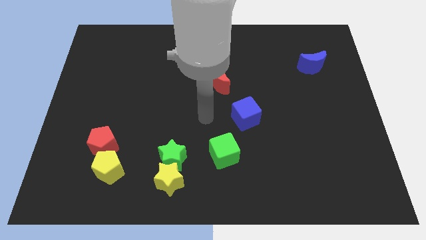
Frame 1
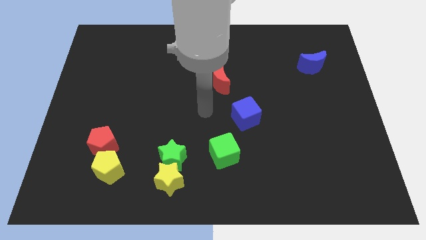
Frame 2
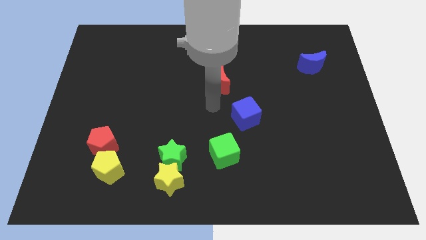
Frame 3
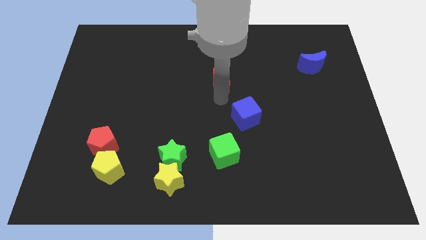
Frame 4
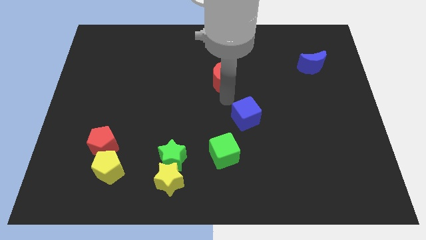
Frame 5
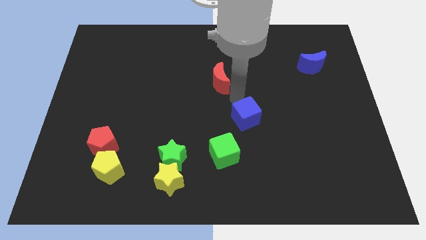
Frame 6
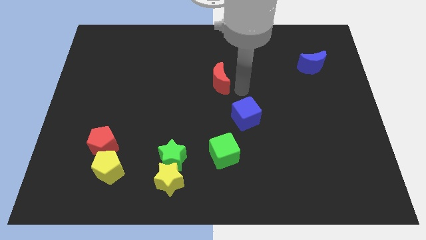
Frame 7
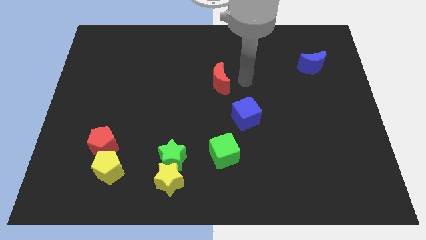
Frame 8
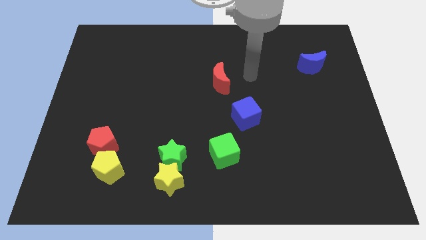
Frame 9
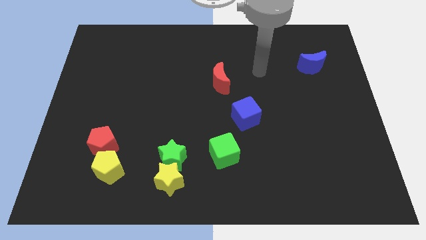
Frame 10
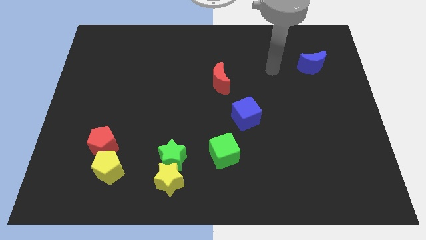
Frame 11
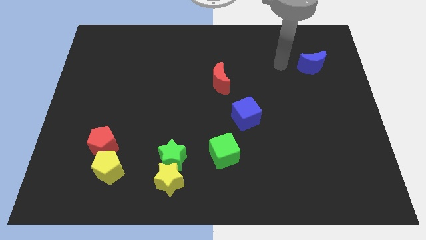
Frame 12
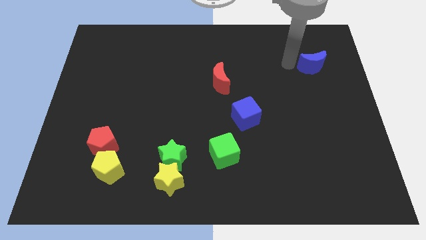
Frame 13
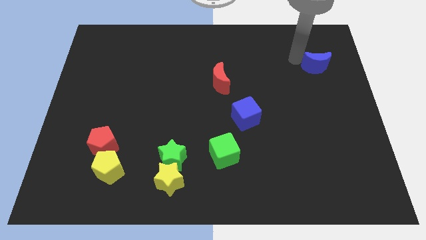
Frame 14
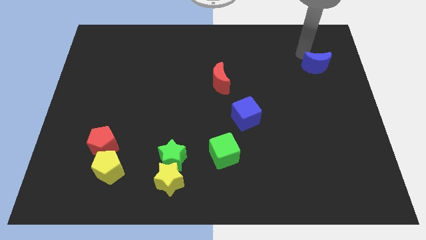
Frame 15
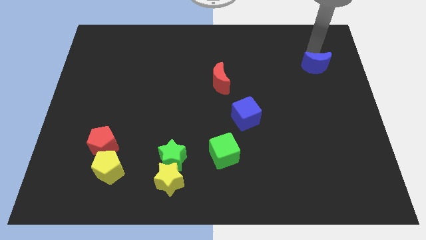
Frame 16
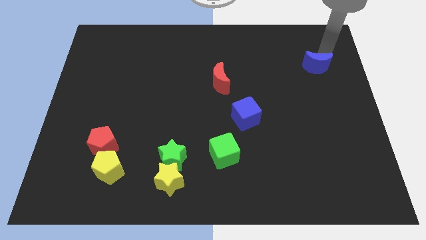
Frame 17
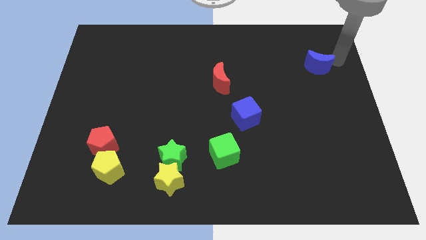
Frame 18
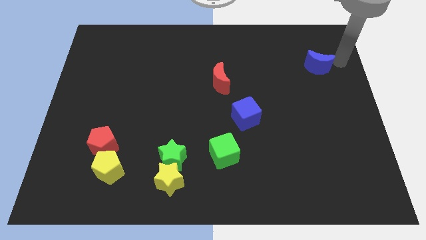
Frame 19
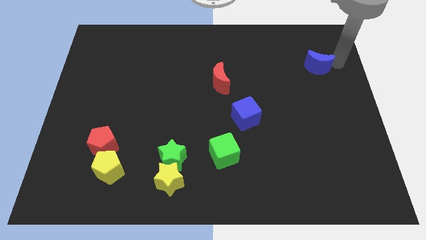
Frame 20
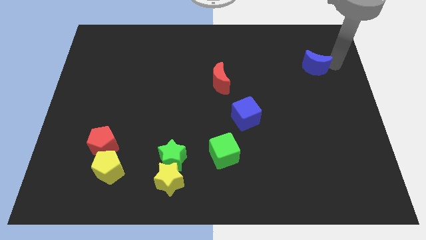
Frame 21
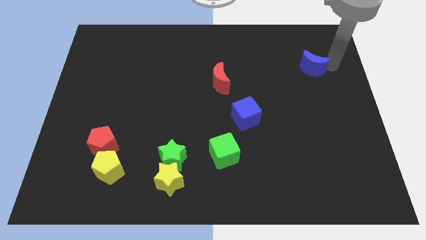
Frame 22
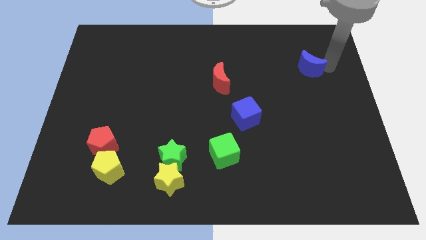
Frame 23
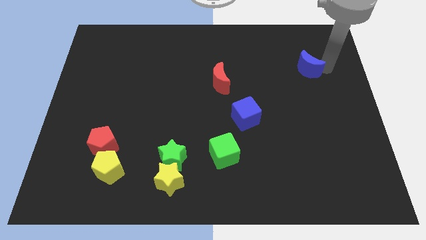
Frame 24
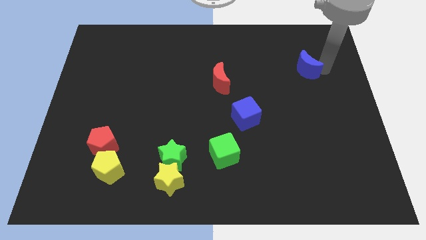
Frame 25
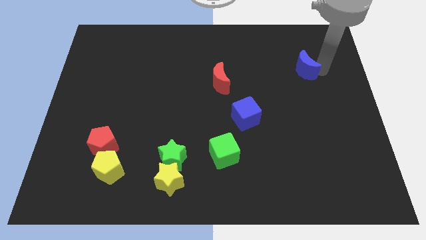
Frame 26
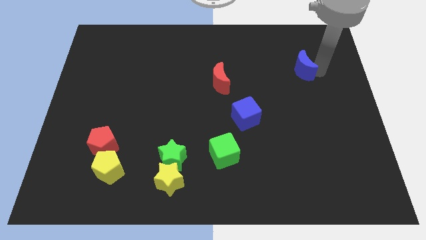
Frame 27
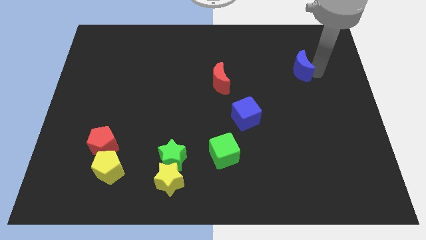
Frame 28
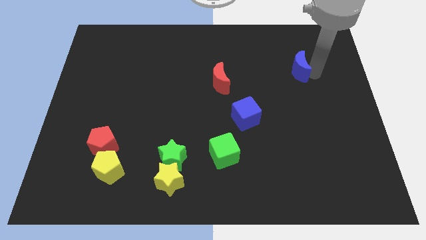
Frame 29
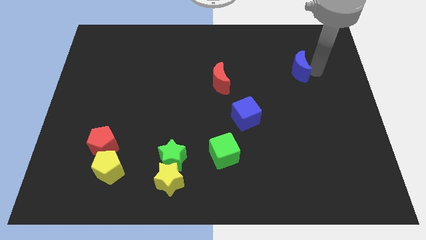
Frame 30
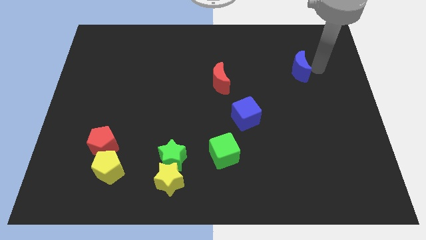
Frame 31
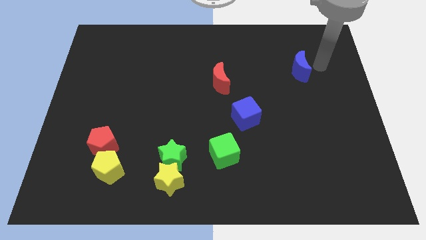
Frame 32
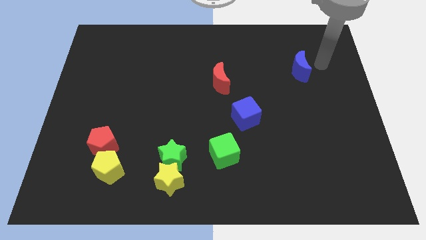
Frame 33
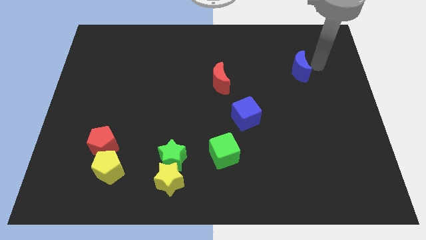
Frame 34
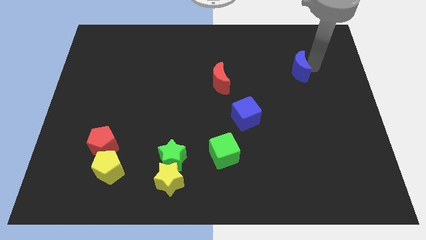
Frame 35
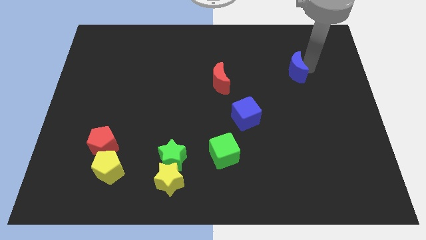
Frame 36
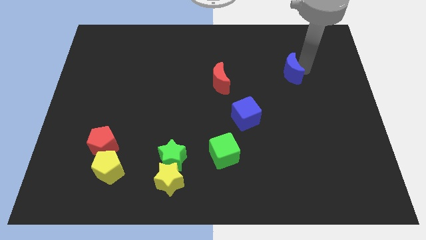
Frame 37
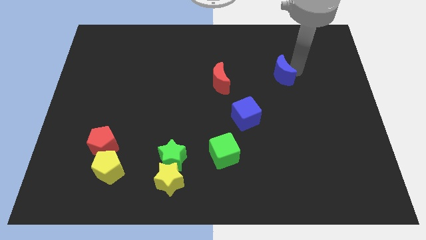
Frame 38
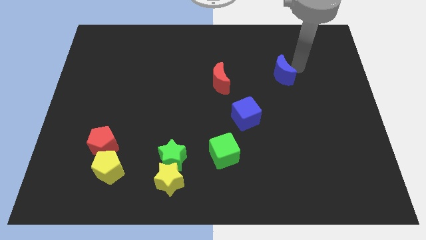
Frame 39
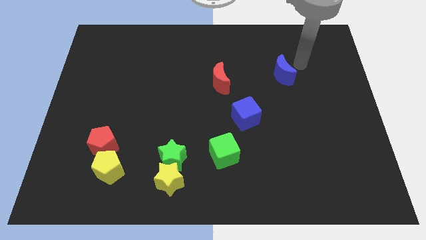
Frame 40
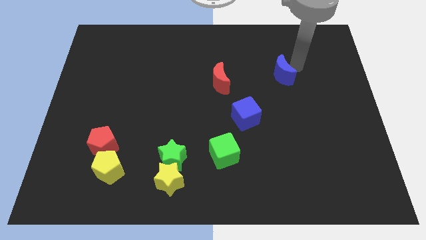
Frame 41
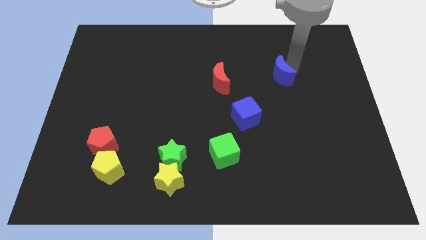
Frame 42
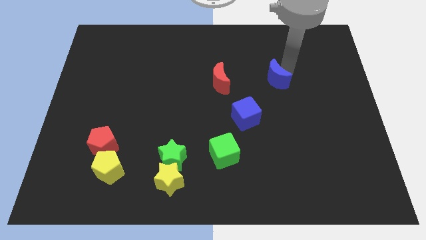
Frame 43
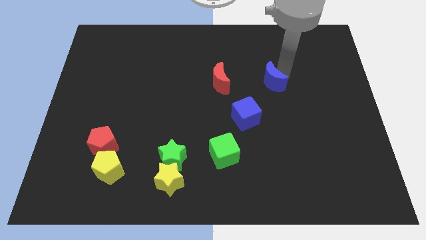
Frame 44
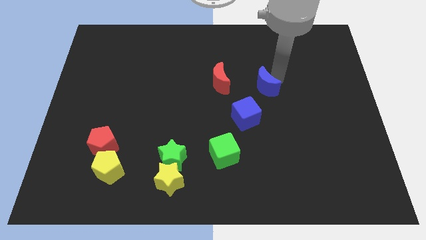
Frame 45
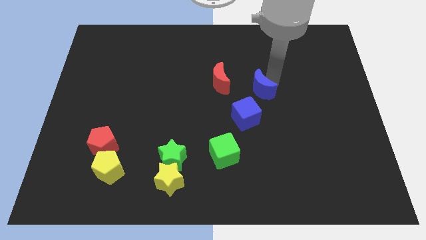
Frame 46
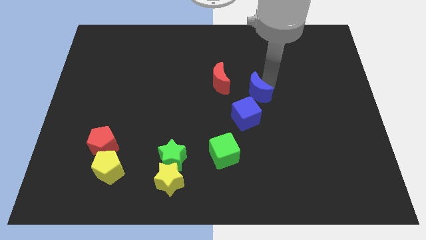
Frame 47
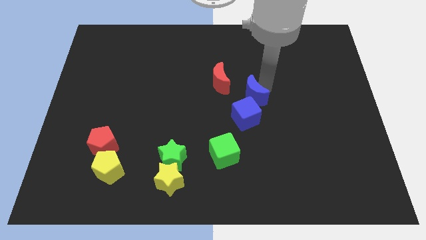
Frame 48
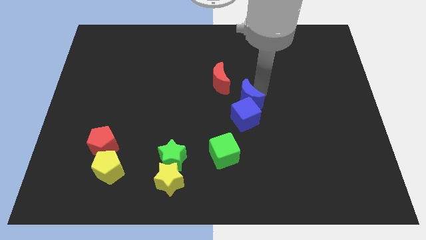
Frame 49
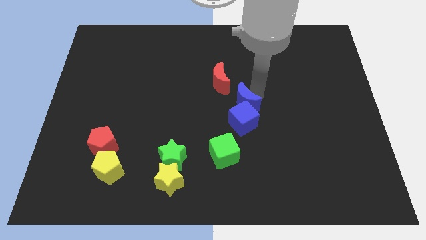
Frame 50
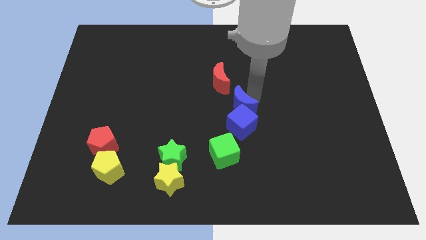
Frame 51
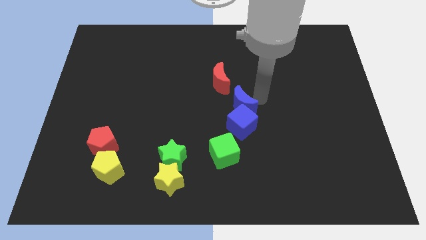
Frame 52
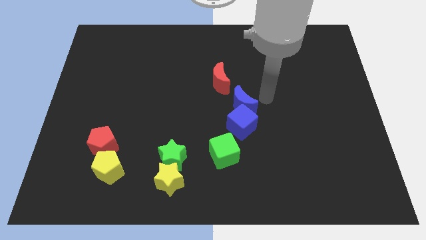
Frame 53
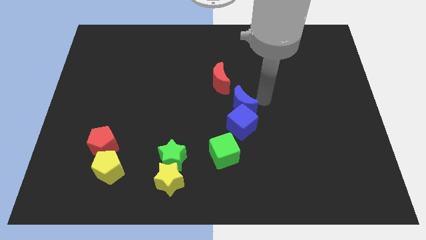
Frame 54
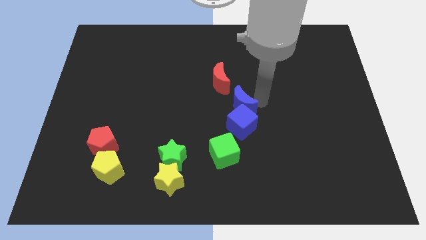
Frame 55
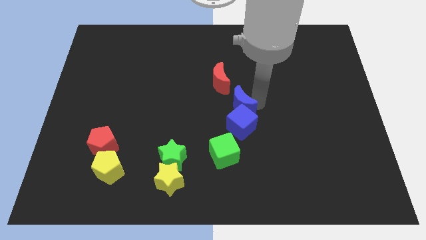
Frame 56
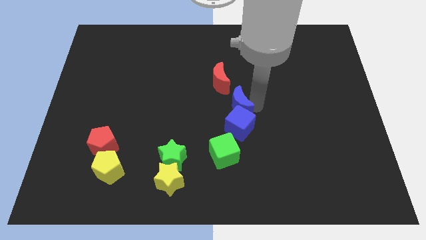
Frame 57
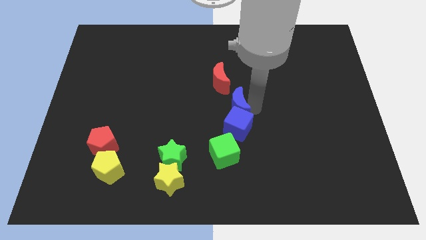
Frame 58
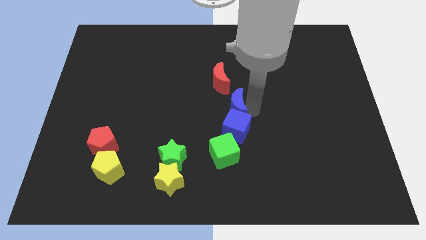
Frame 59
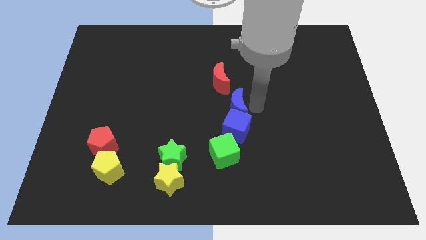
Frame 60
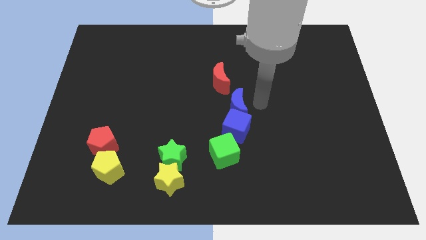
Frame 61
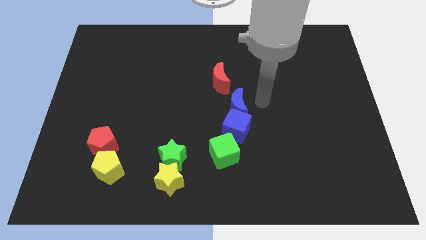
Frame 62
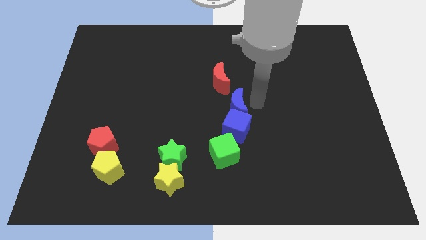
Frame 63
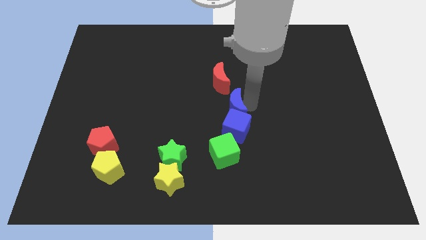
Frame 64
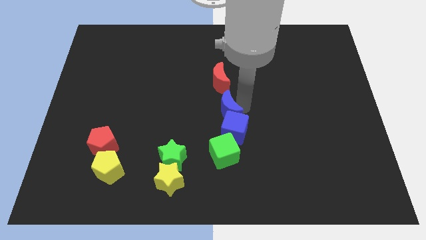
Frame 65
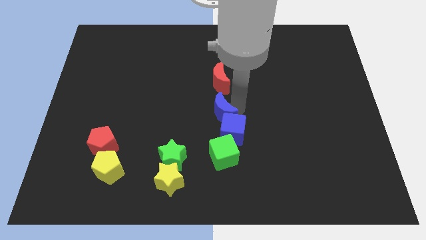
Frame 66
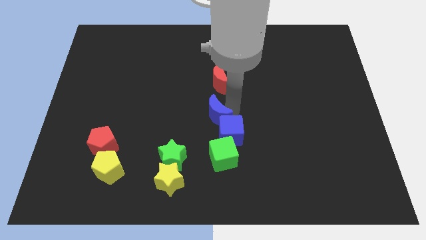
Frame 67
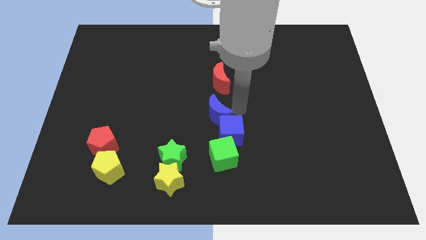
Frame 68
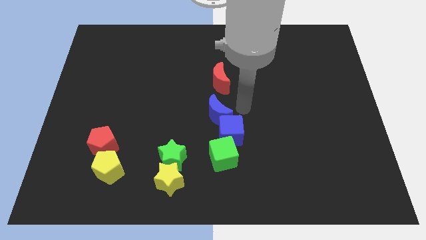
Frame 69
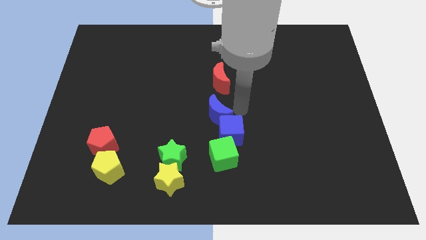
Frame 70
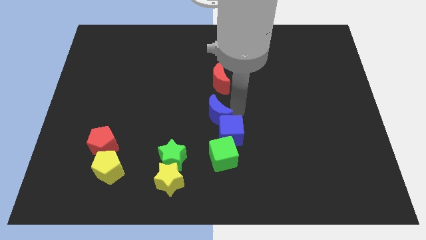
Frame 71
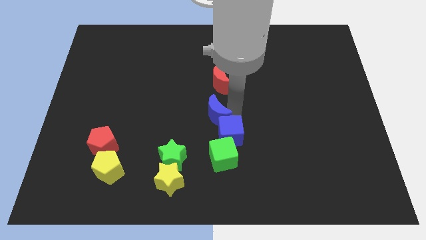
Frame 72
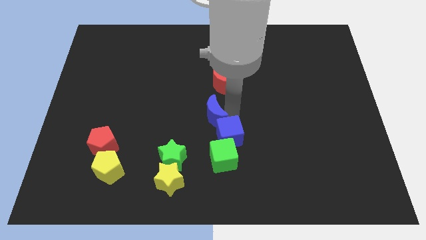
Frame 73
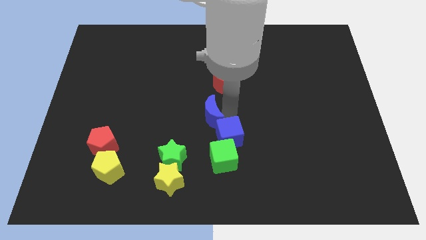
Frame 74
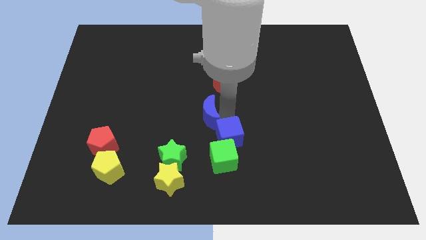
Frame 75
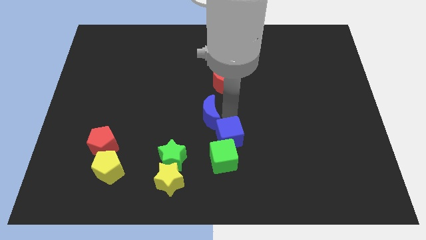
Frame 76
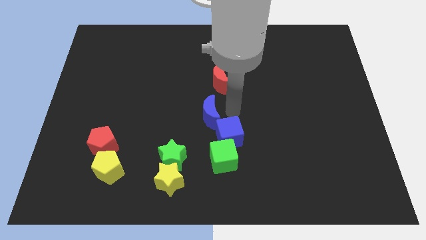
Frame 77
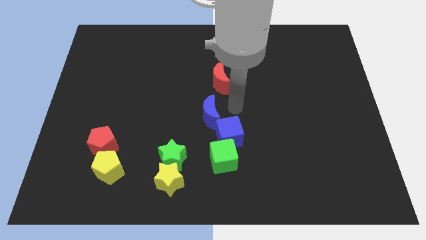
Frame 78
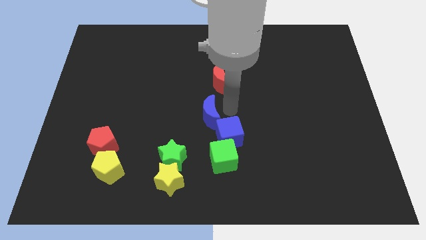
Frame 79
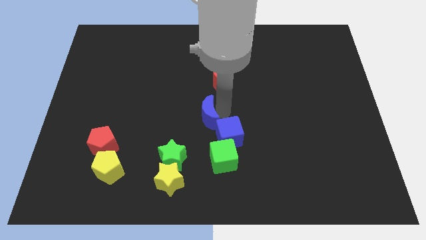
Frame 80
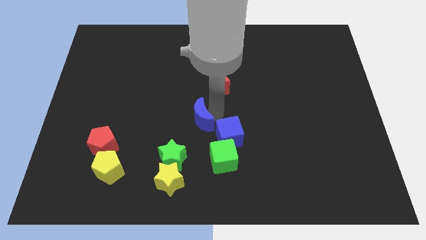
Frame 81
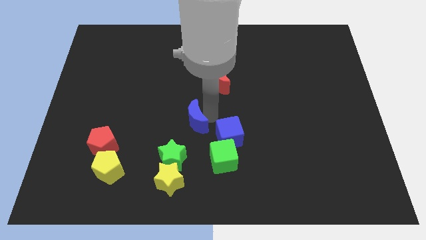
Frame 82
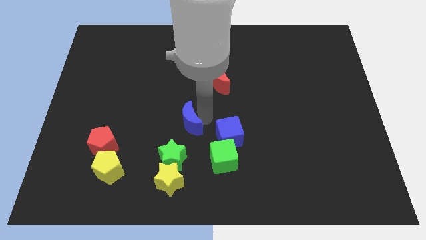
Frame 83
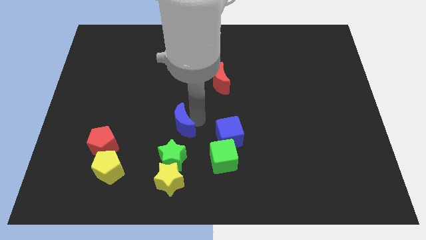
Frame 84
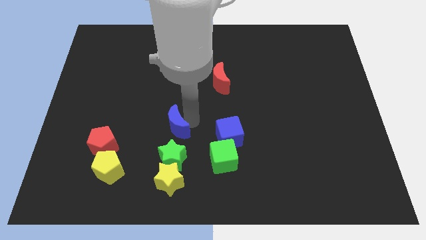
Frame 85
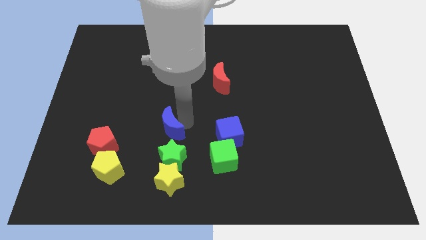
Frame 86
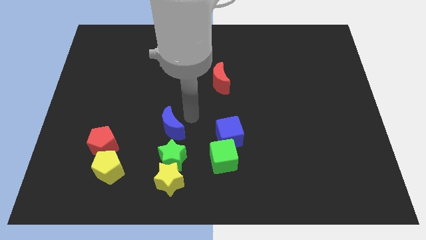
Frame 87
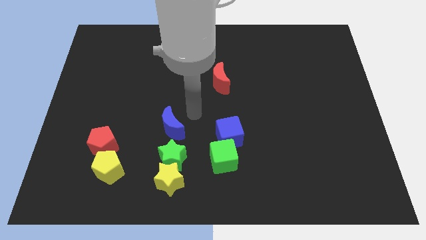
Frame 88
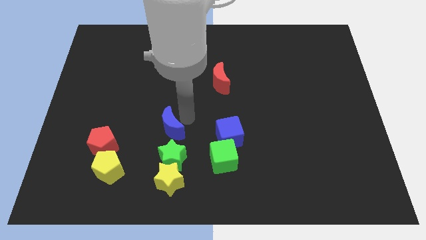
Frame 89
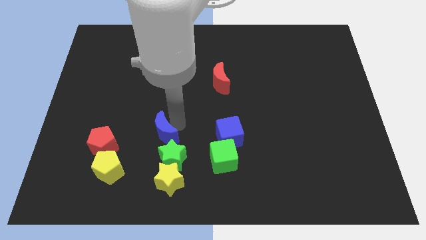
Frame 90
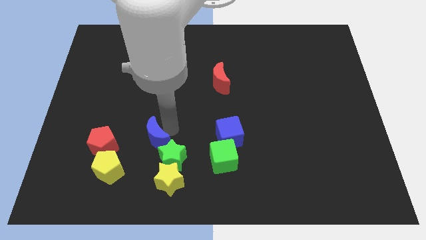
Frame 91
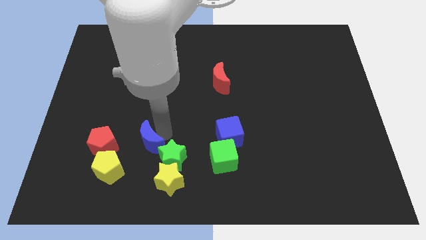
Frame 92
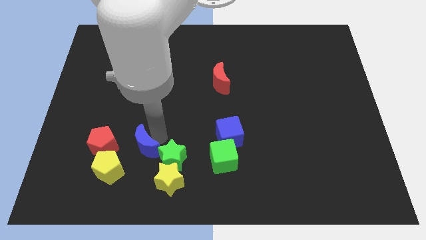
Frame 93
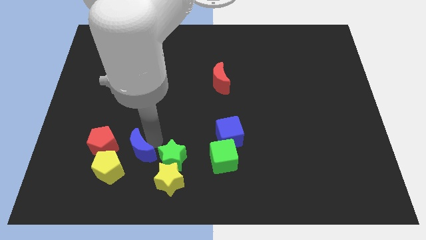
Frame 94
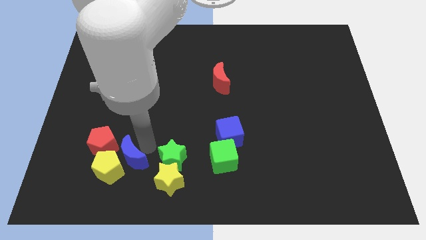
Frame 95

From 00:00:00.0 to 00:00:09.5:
move the blue moon to the yellow pentagon
